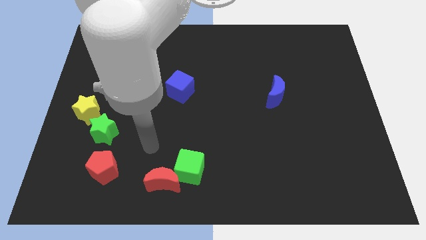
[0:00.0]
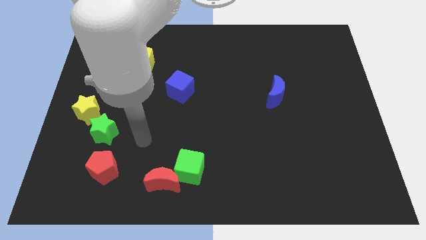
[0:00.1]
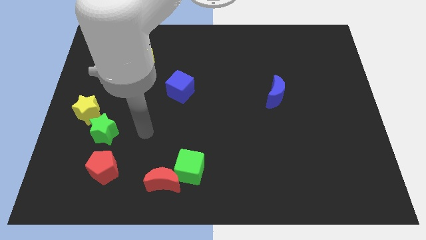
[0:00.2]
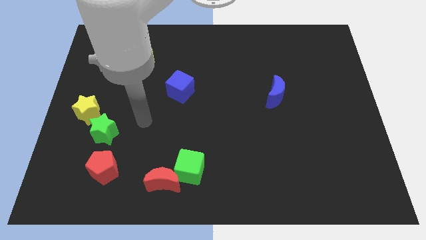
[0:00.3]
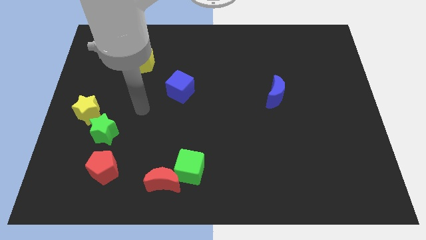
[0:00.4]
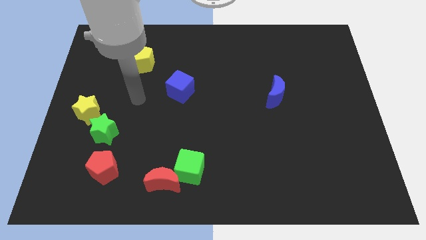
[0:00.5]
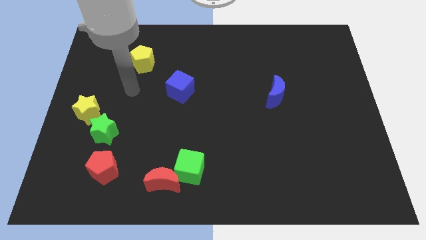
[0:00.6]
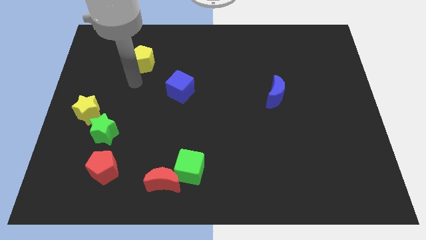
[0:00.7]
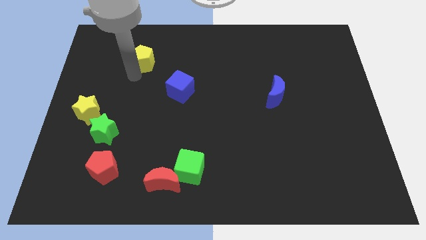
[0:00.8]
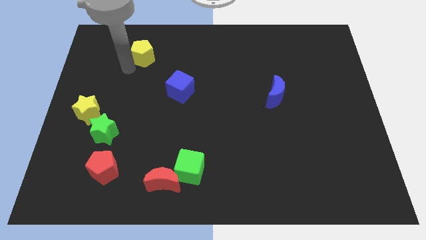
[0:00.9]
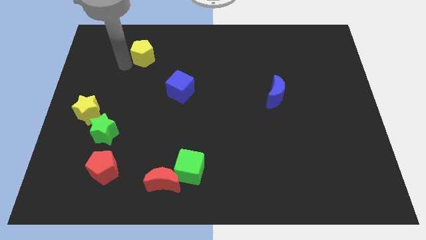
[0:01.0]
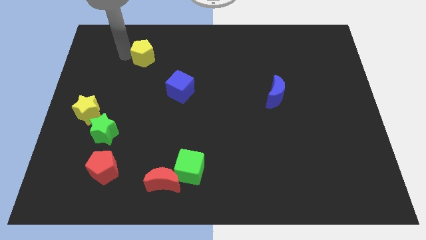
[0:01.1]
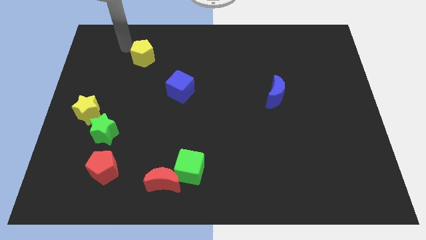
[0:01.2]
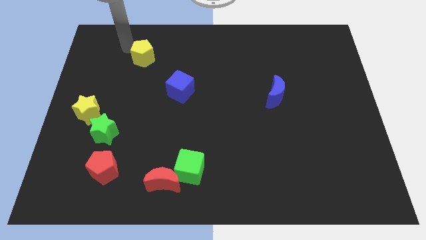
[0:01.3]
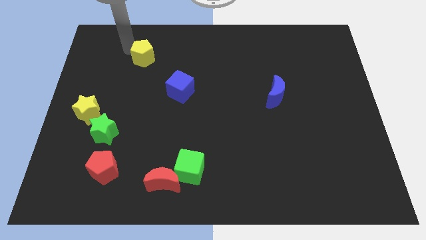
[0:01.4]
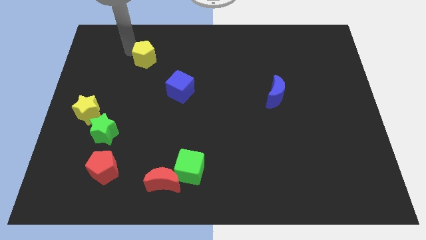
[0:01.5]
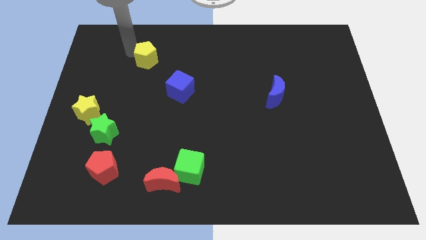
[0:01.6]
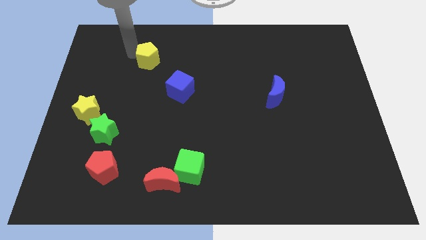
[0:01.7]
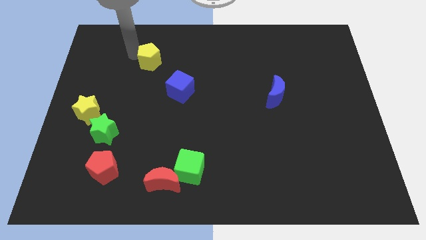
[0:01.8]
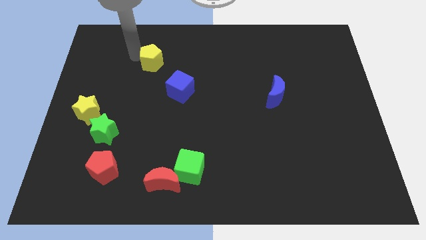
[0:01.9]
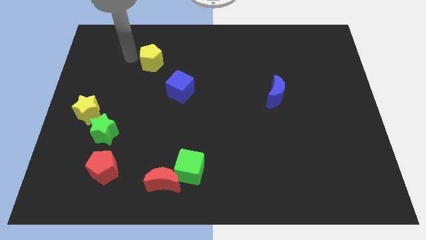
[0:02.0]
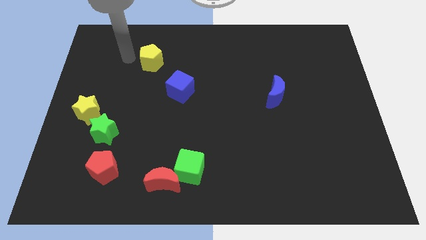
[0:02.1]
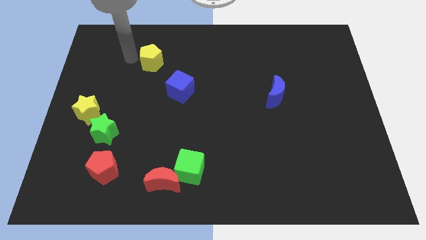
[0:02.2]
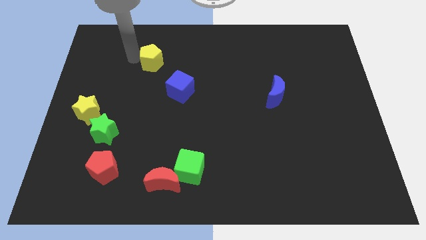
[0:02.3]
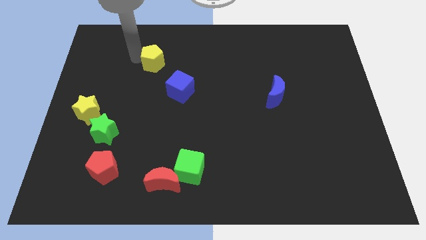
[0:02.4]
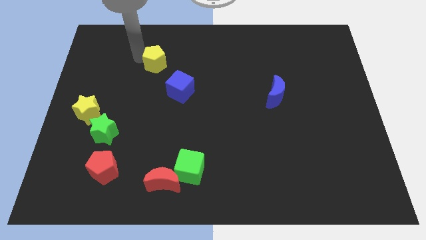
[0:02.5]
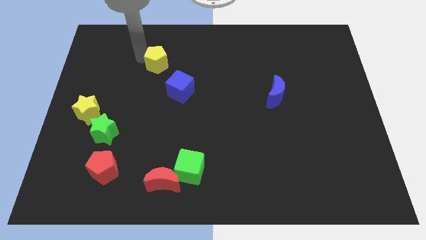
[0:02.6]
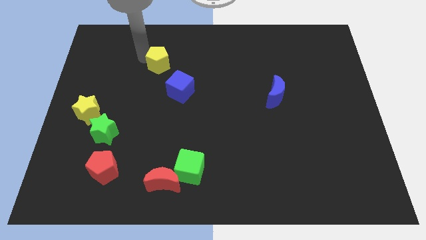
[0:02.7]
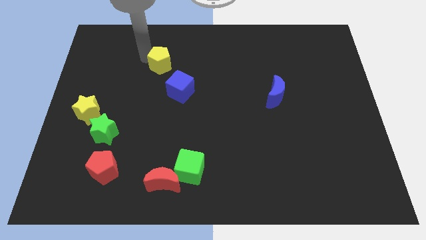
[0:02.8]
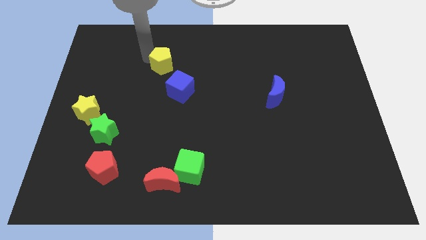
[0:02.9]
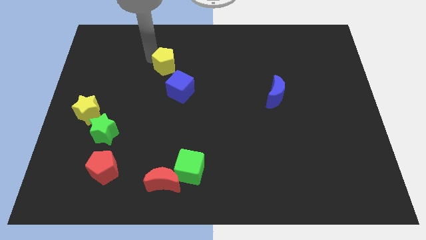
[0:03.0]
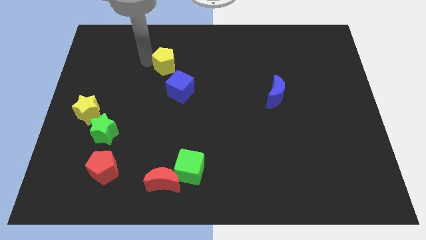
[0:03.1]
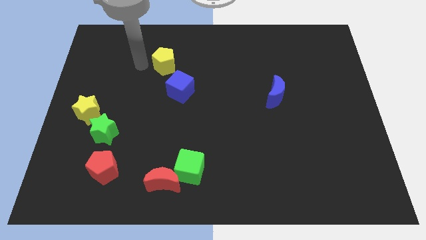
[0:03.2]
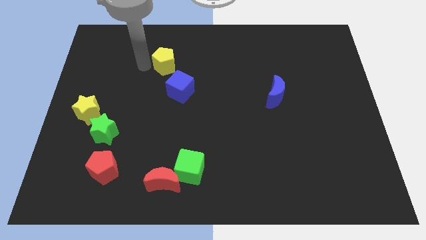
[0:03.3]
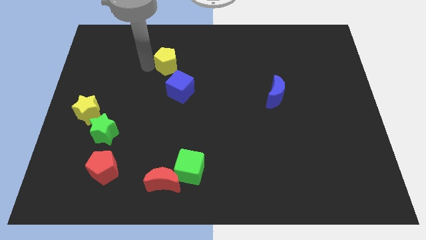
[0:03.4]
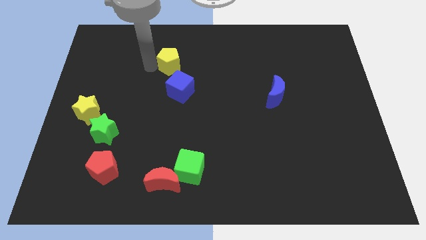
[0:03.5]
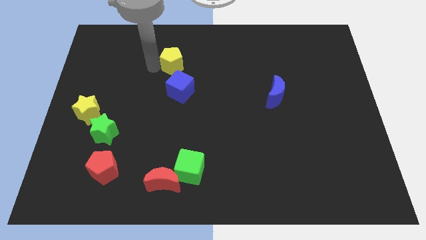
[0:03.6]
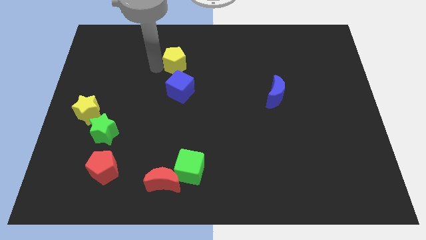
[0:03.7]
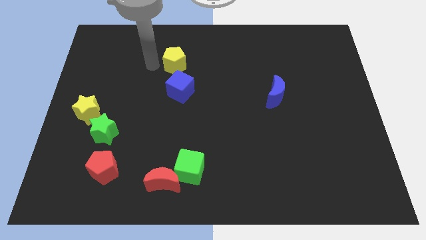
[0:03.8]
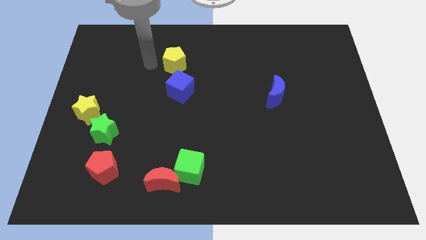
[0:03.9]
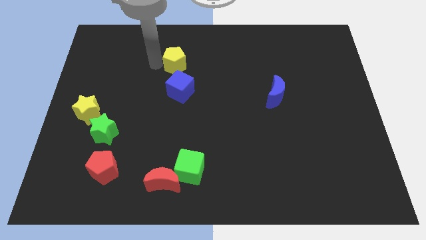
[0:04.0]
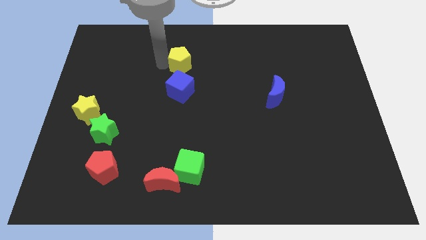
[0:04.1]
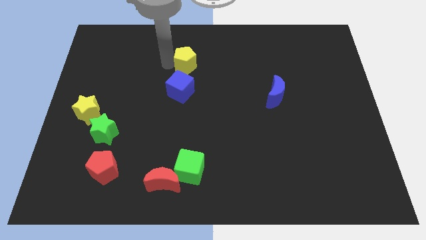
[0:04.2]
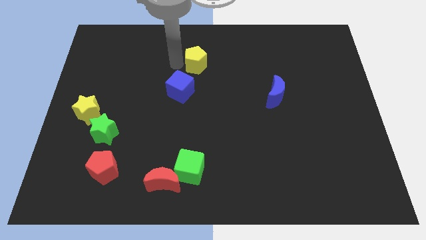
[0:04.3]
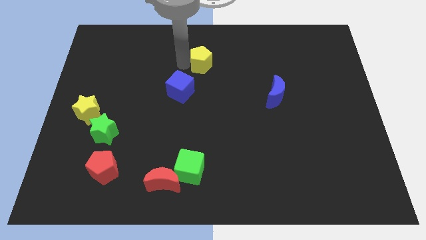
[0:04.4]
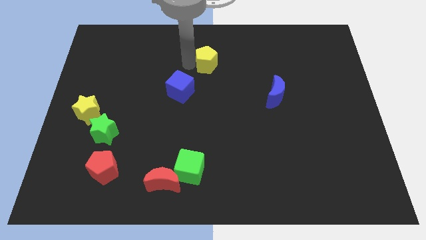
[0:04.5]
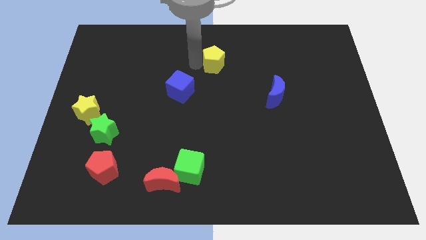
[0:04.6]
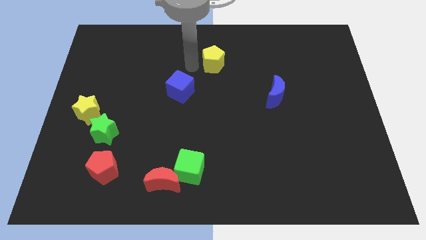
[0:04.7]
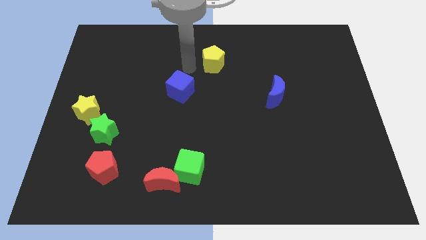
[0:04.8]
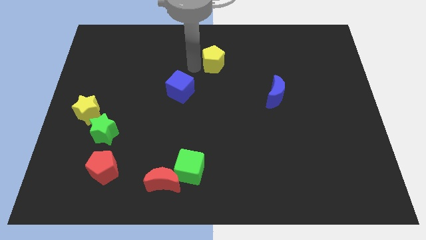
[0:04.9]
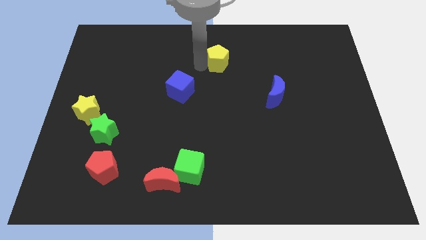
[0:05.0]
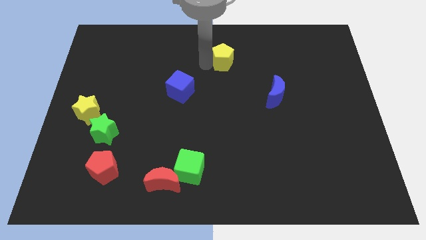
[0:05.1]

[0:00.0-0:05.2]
push the yellow pentagon to the right

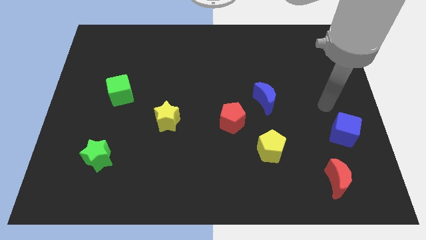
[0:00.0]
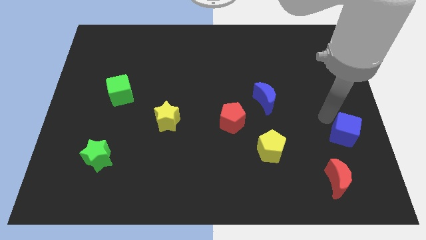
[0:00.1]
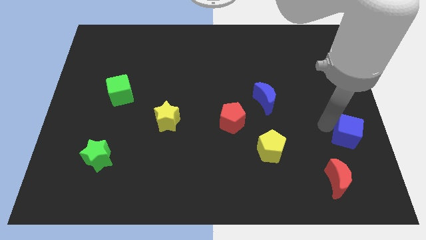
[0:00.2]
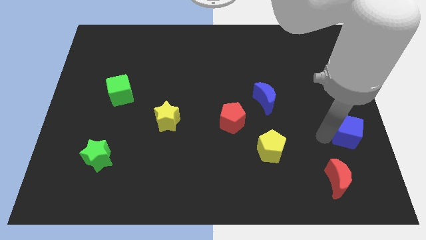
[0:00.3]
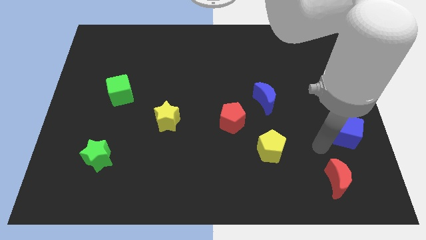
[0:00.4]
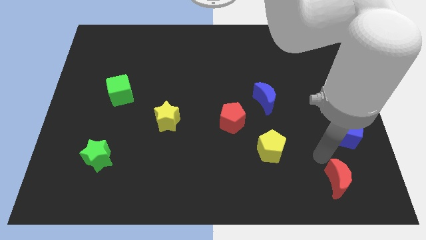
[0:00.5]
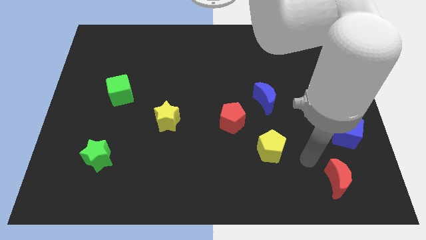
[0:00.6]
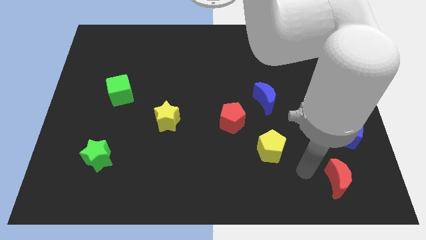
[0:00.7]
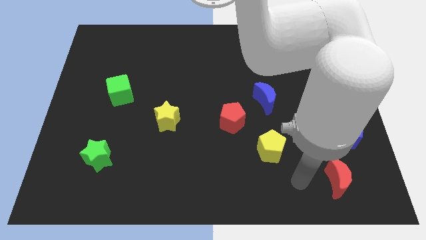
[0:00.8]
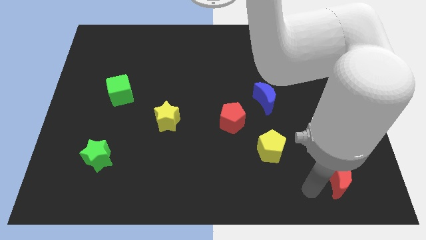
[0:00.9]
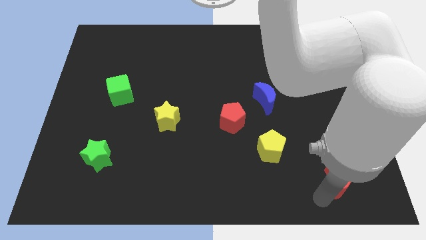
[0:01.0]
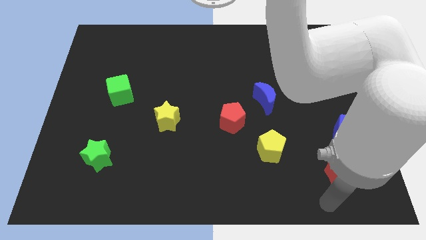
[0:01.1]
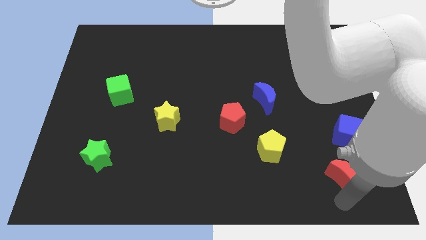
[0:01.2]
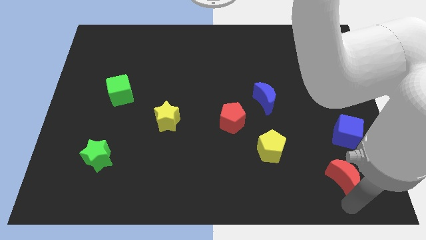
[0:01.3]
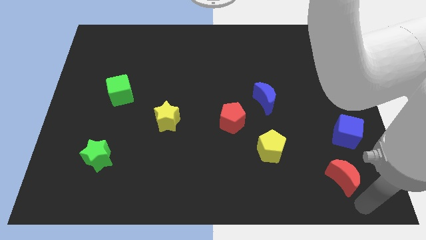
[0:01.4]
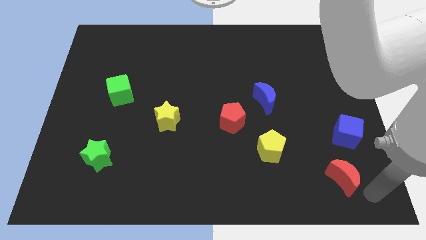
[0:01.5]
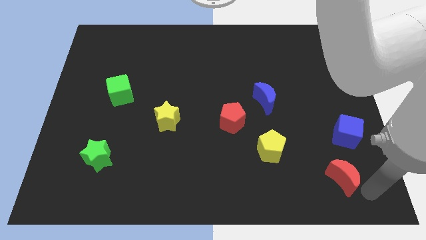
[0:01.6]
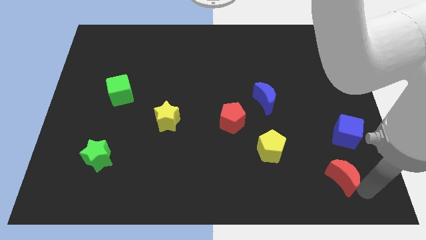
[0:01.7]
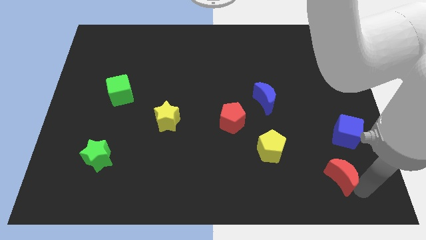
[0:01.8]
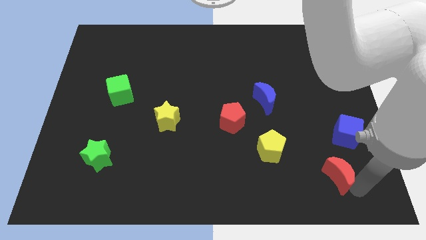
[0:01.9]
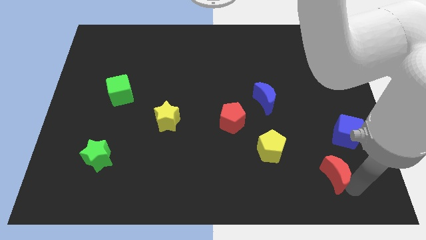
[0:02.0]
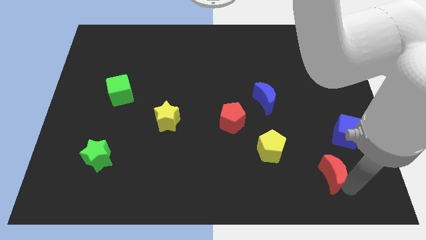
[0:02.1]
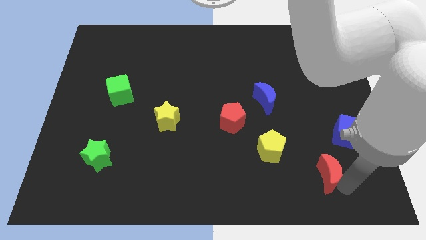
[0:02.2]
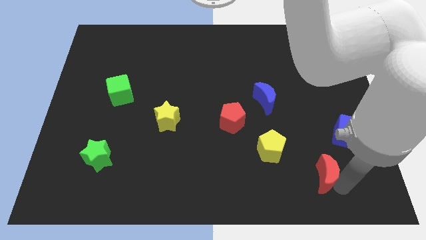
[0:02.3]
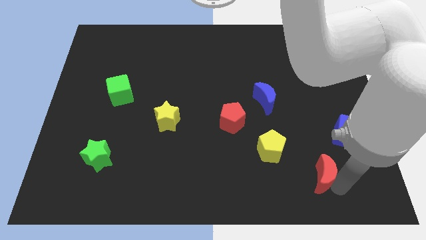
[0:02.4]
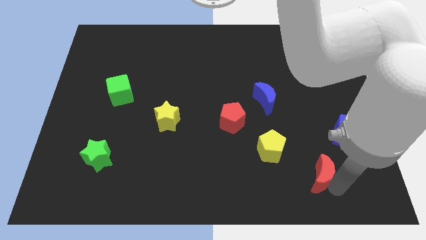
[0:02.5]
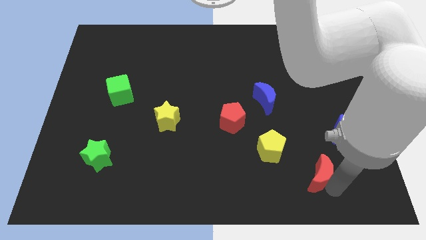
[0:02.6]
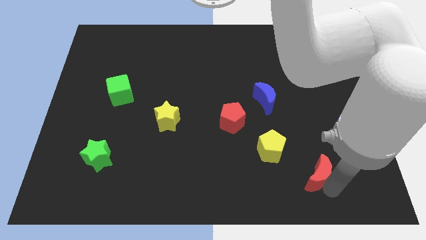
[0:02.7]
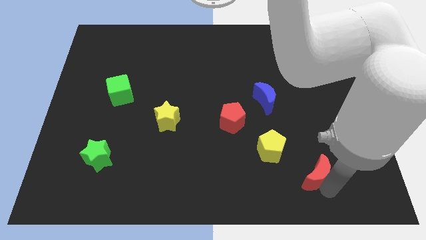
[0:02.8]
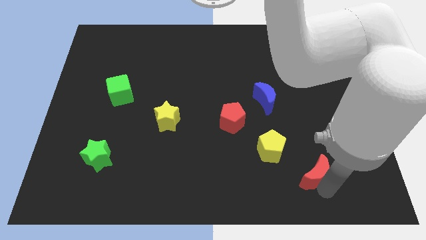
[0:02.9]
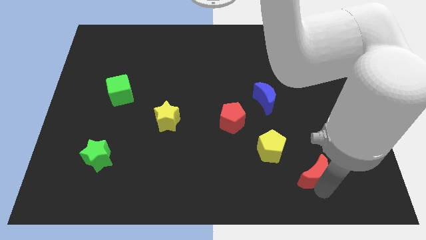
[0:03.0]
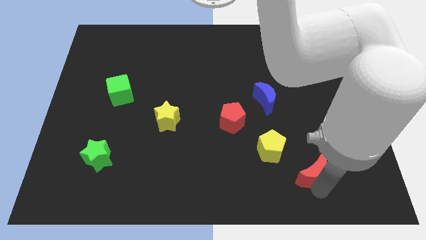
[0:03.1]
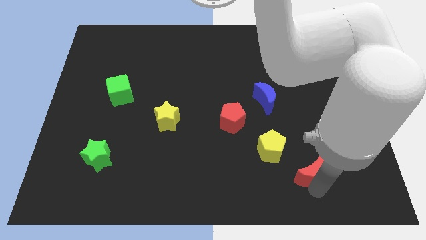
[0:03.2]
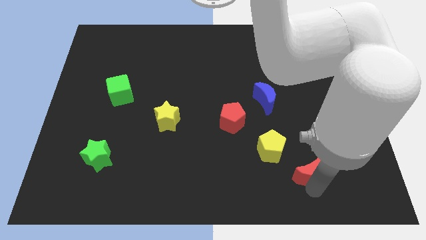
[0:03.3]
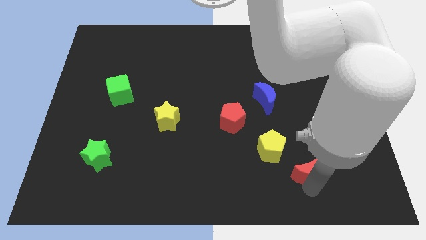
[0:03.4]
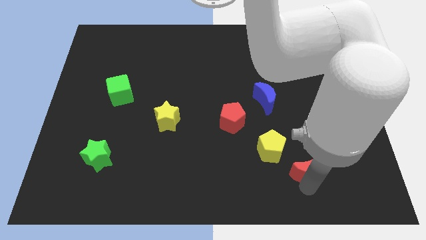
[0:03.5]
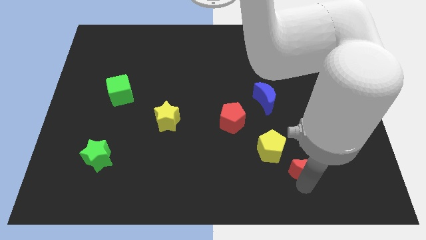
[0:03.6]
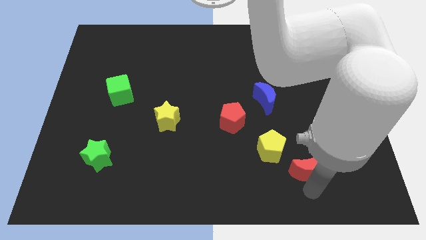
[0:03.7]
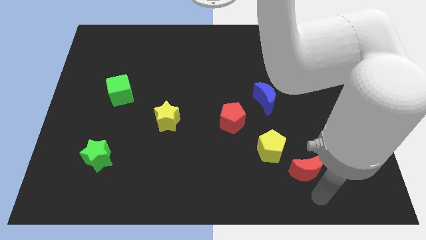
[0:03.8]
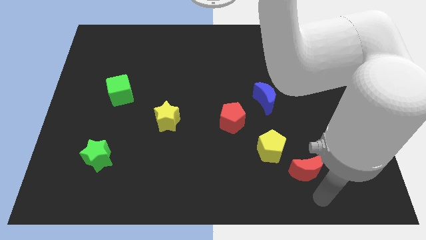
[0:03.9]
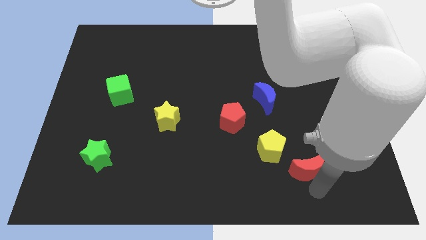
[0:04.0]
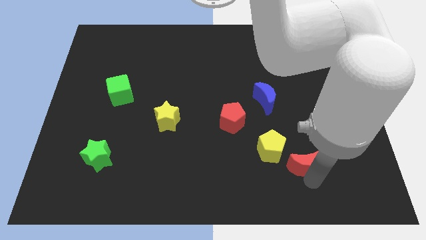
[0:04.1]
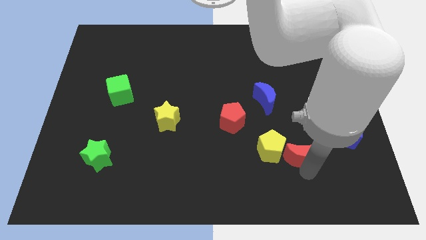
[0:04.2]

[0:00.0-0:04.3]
slightly move the red moon upwards and then left
